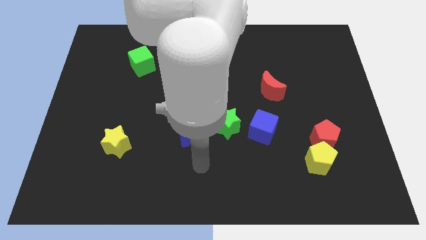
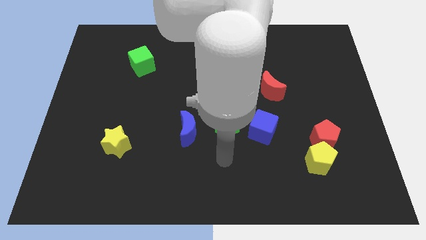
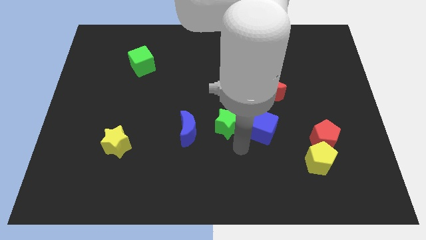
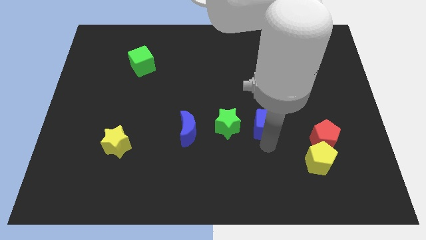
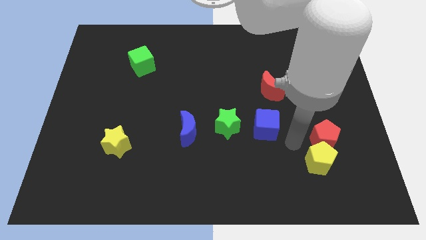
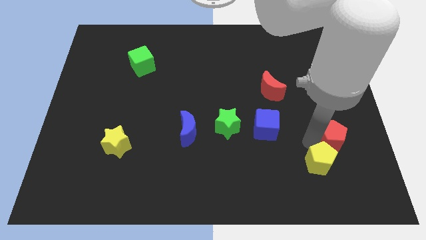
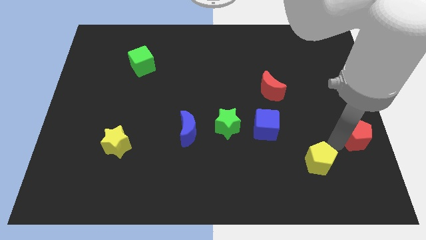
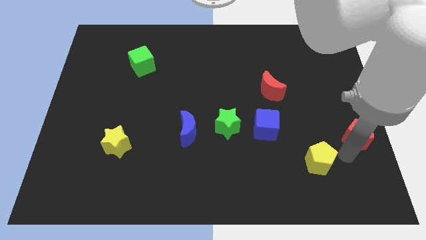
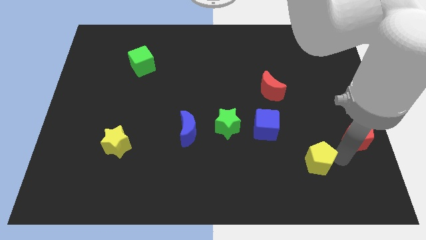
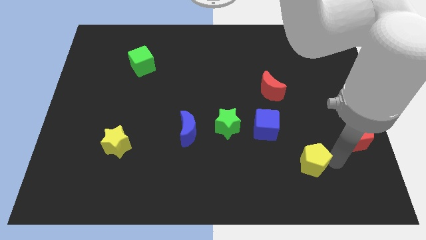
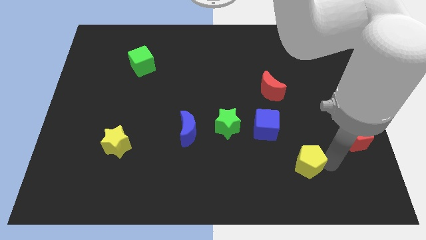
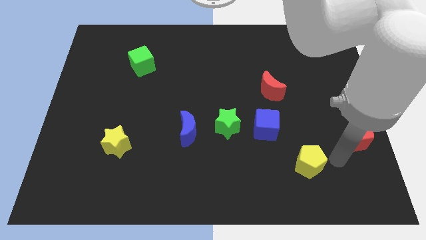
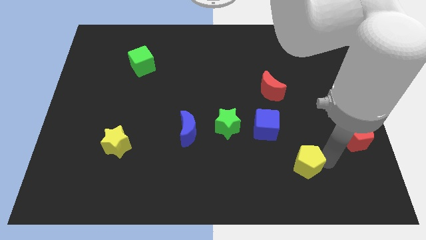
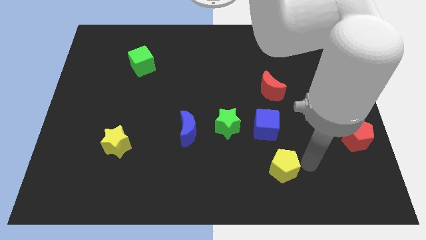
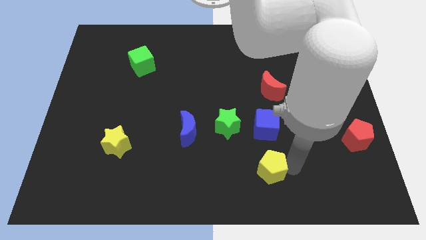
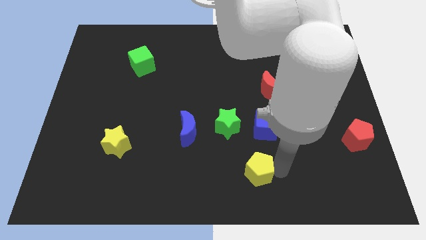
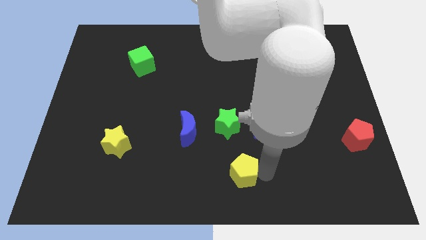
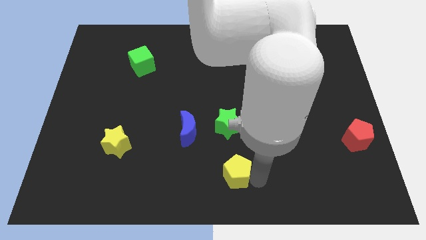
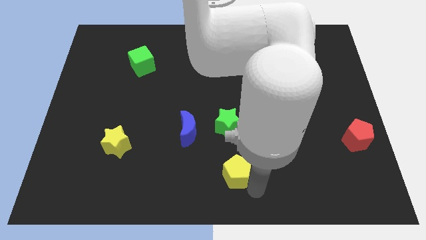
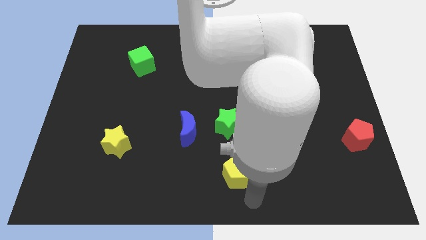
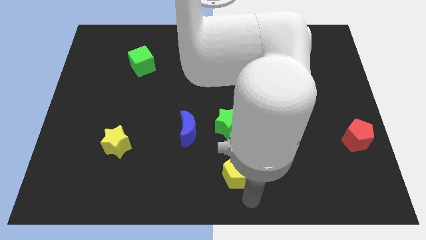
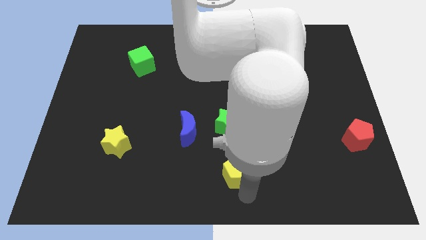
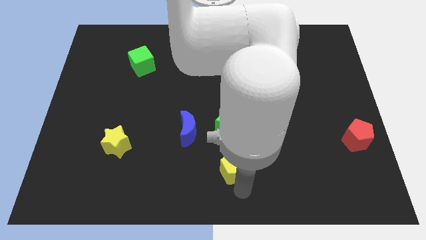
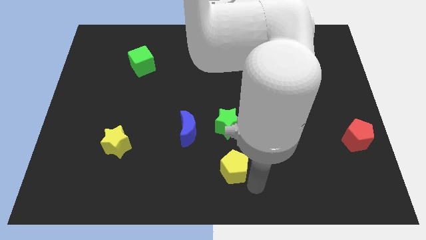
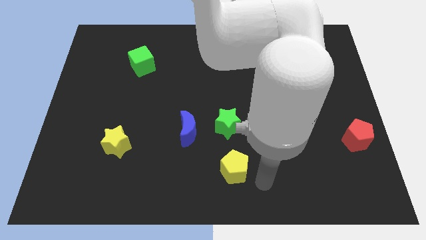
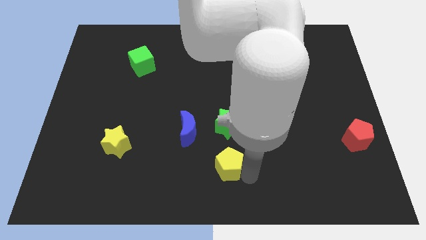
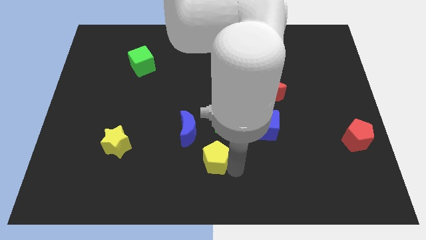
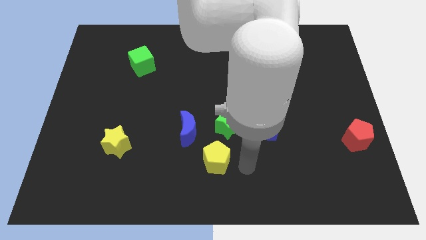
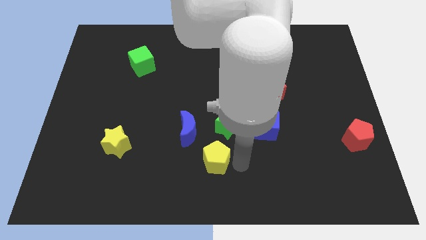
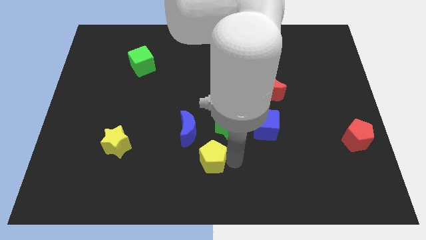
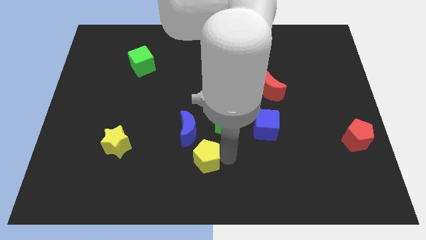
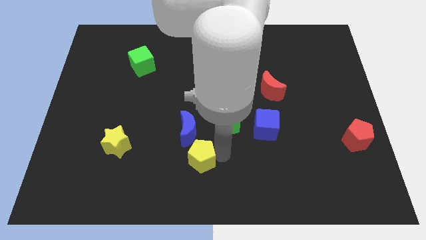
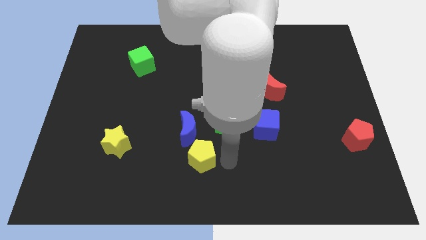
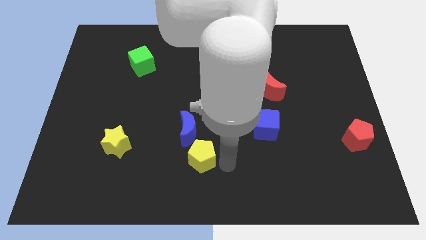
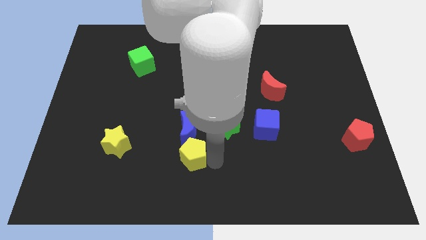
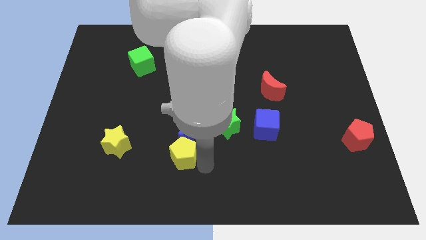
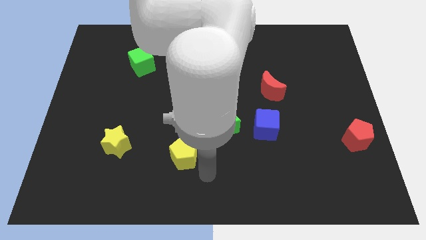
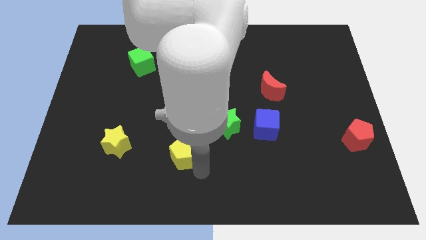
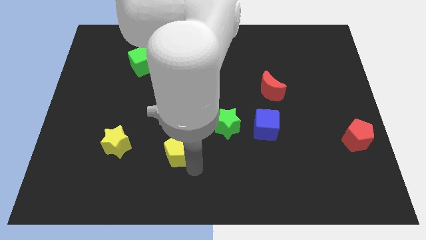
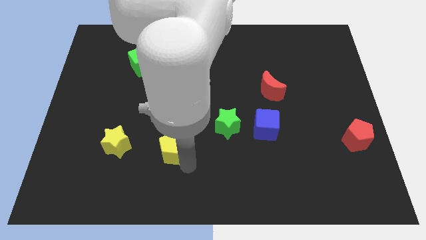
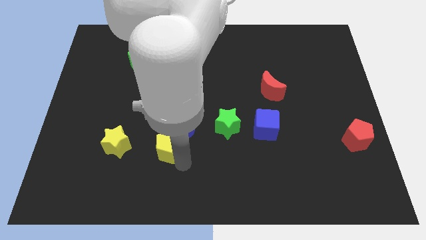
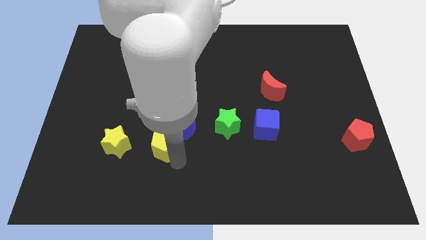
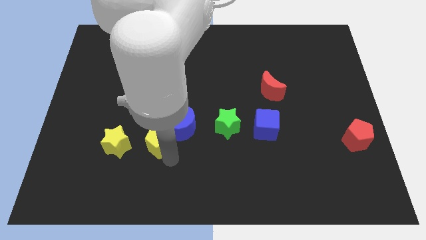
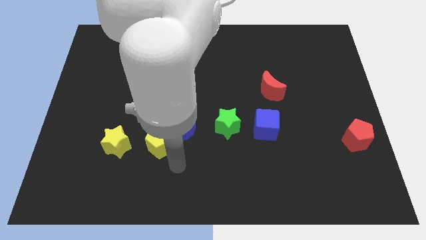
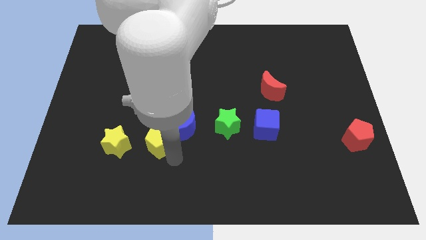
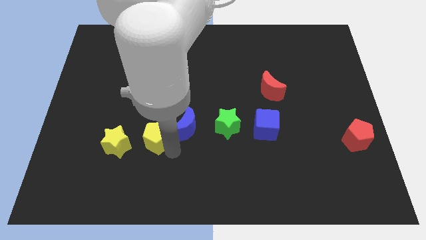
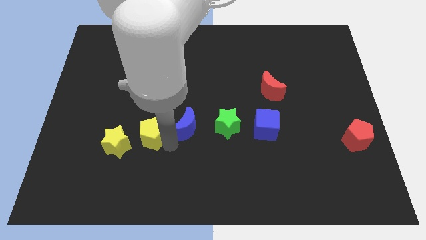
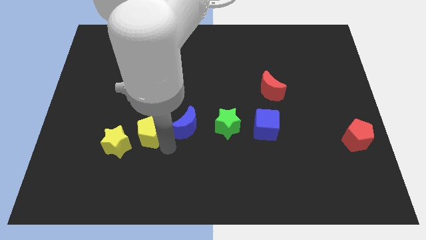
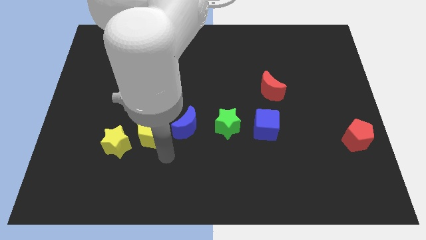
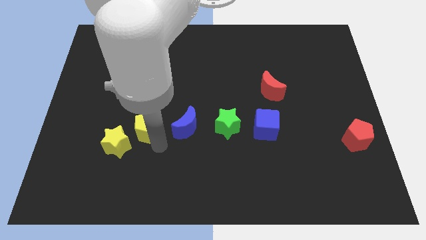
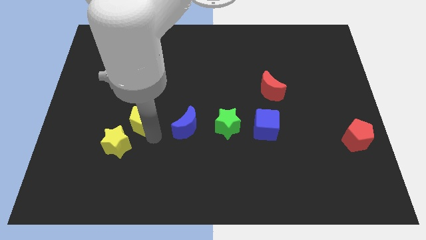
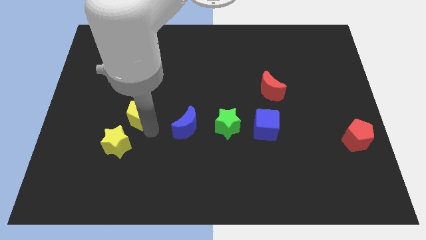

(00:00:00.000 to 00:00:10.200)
slide the yellow pentagon to the top of the yellow star

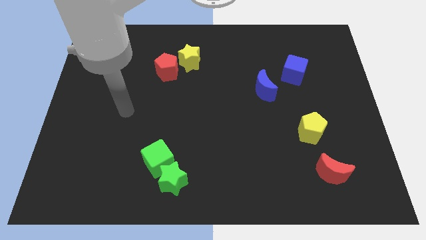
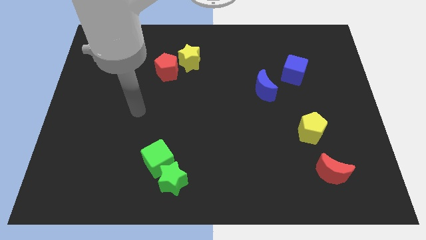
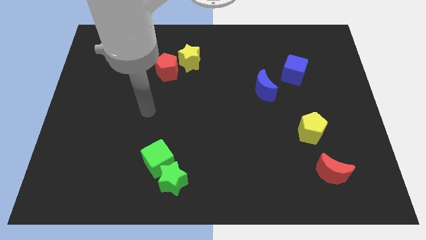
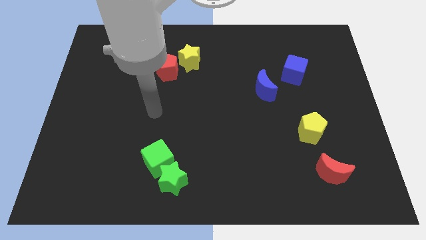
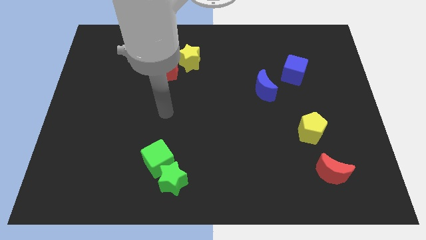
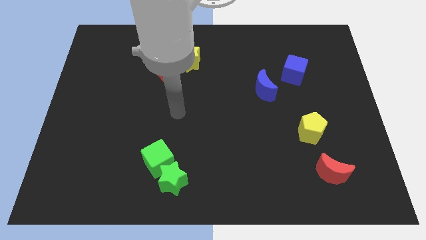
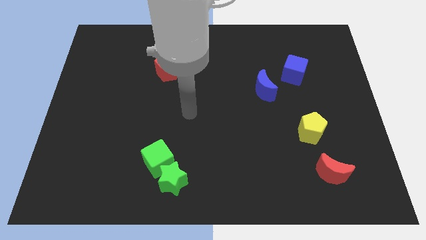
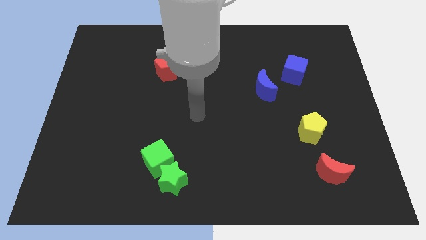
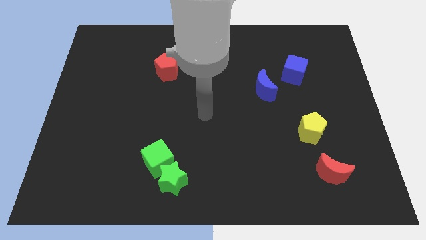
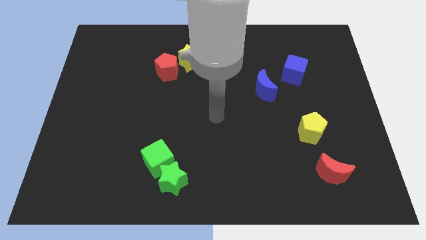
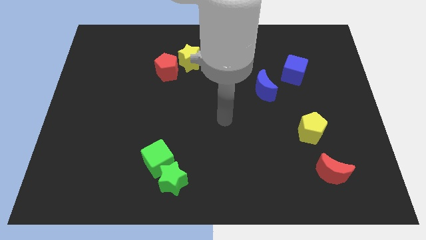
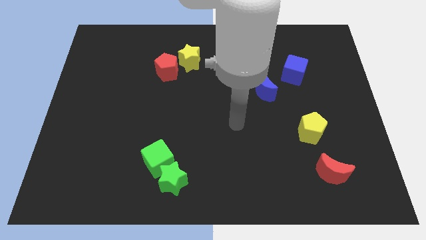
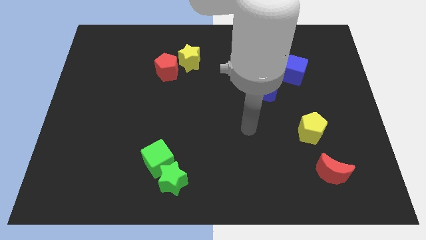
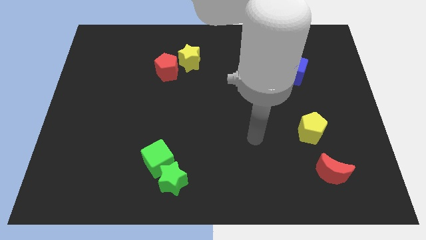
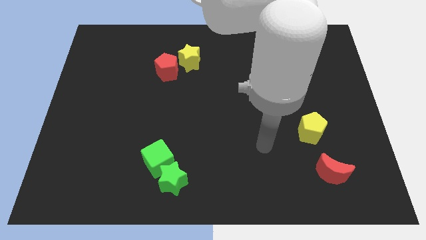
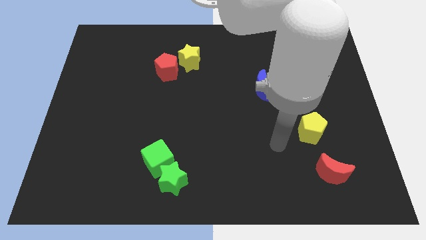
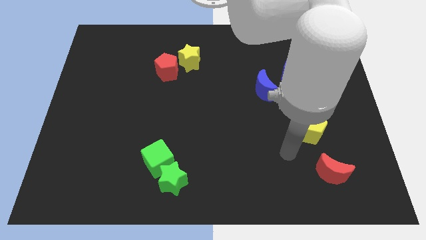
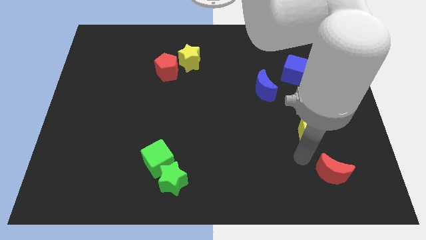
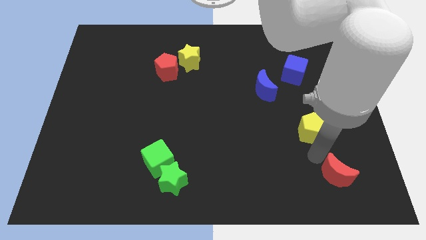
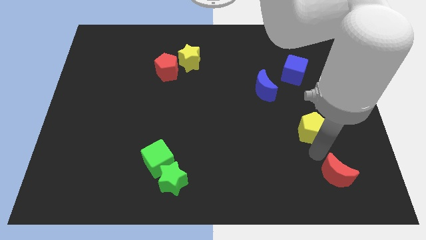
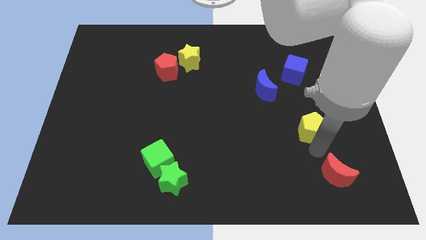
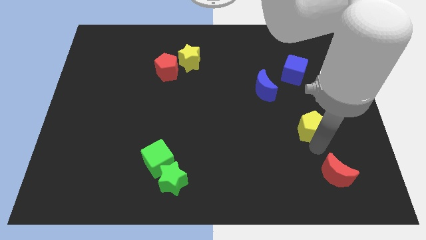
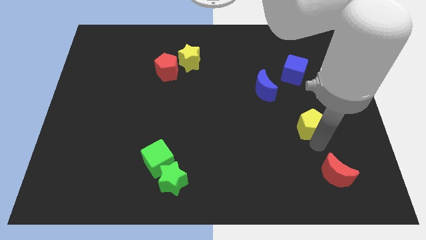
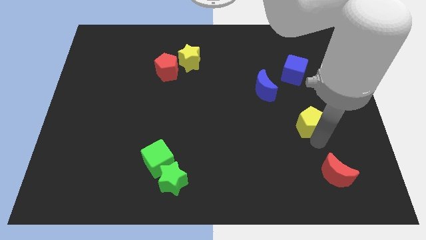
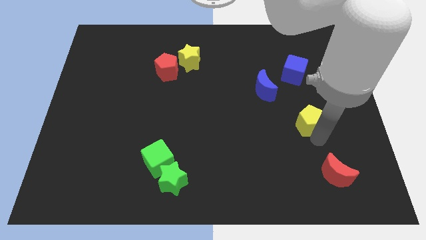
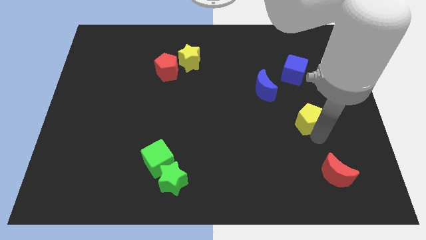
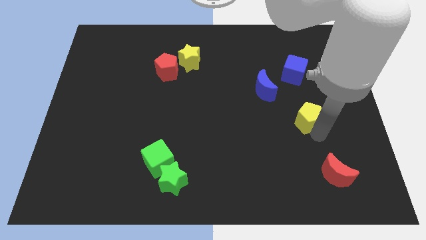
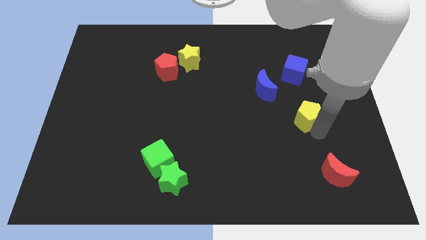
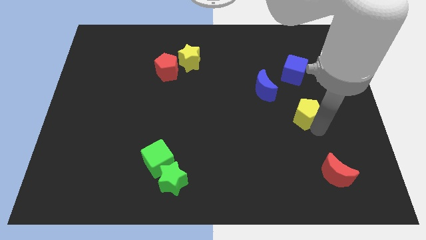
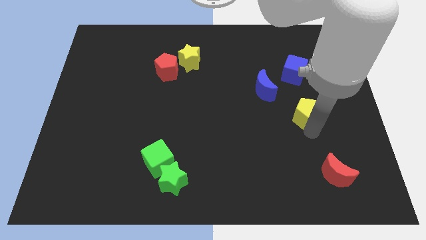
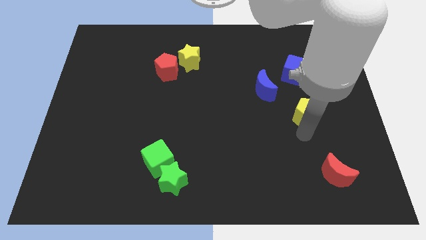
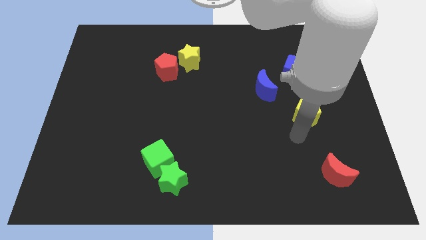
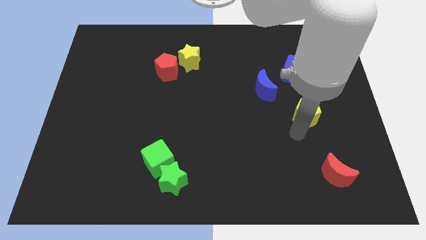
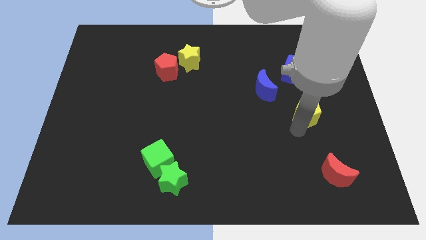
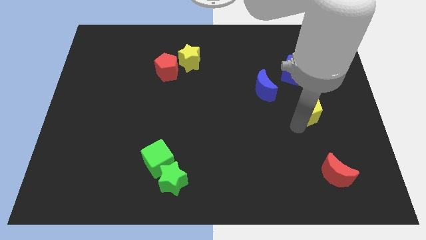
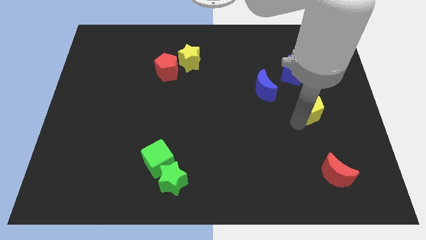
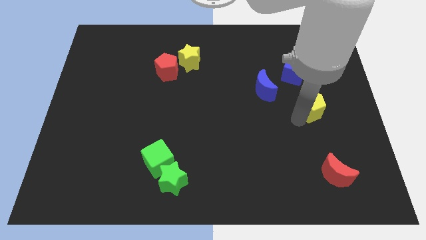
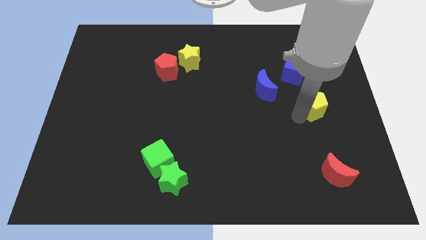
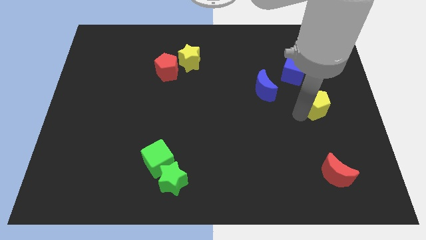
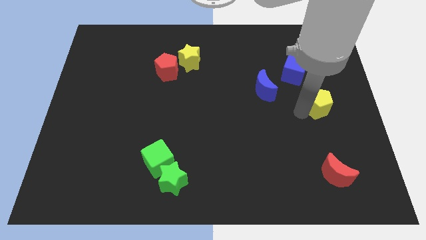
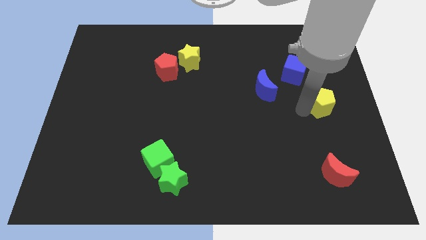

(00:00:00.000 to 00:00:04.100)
move the yellow pentagon to the bottom right of the blue cube
